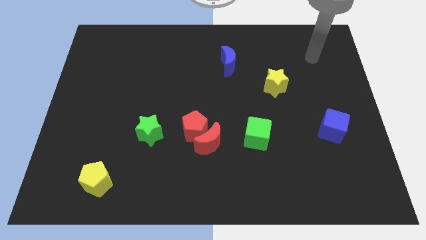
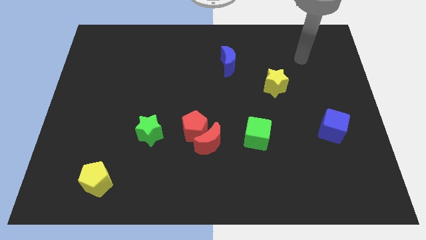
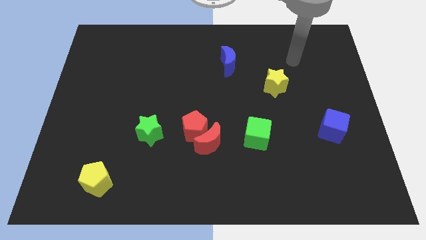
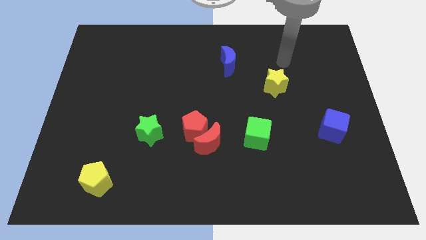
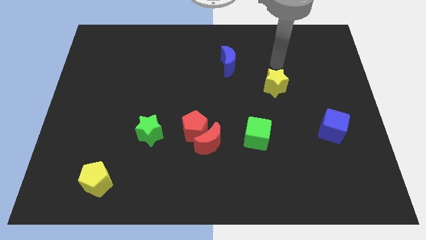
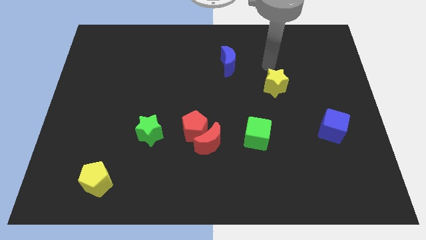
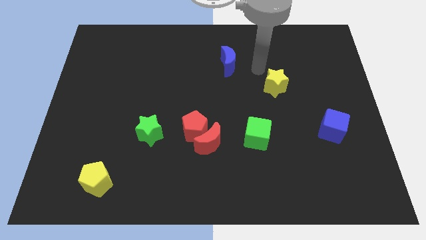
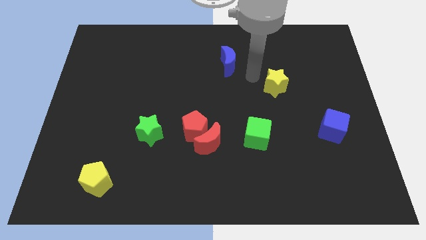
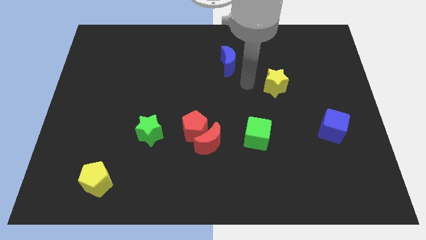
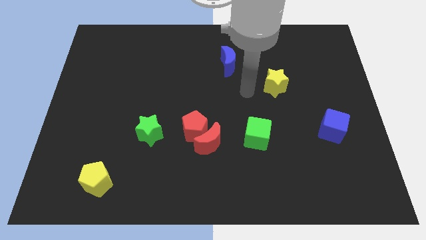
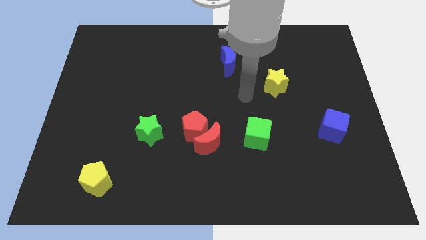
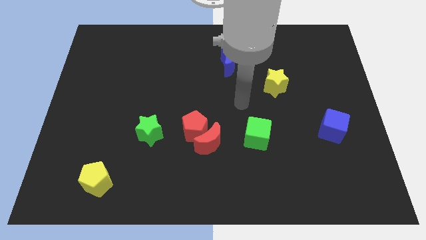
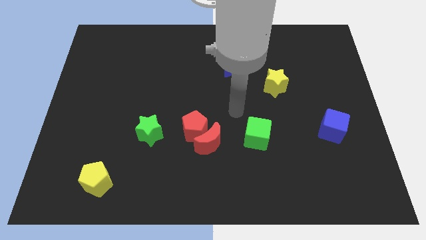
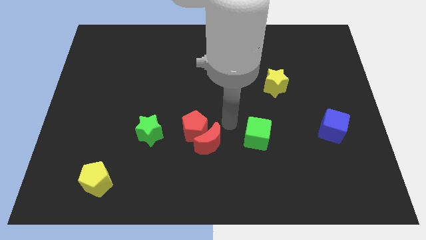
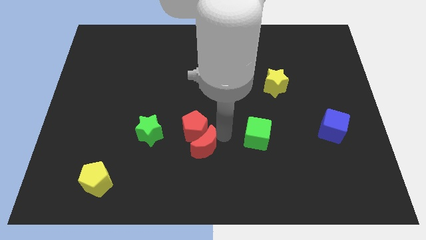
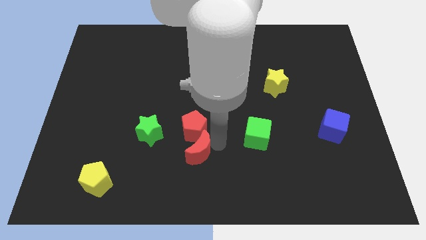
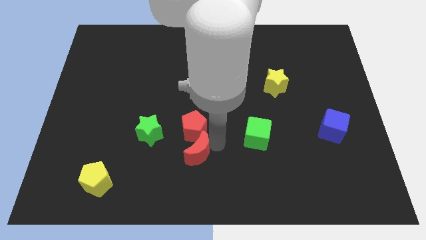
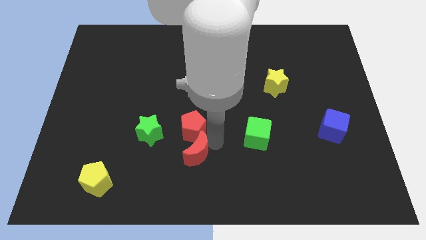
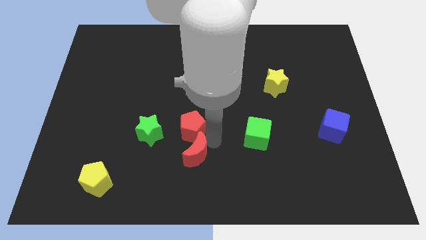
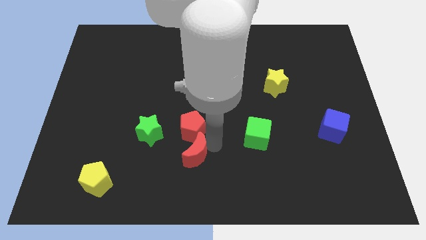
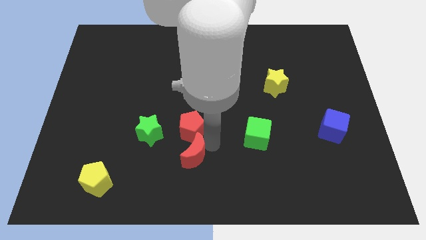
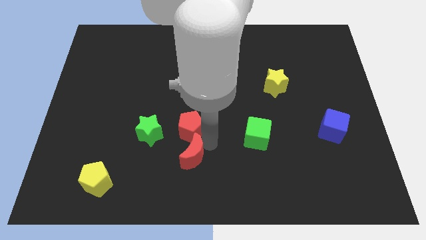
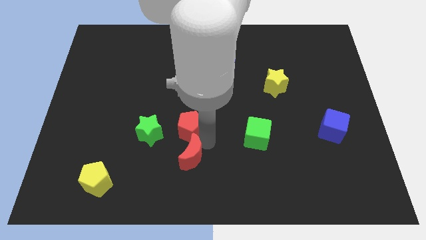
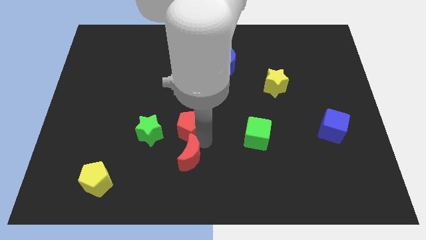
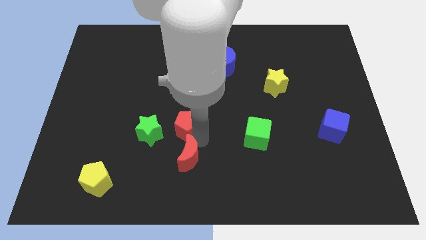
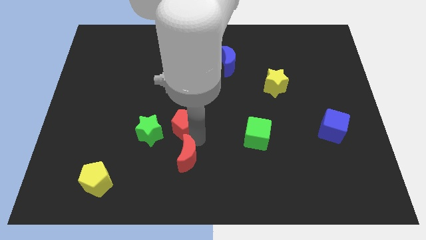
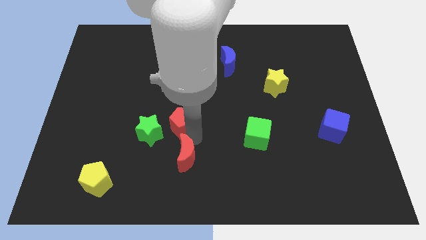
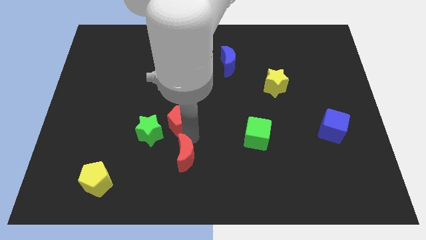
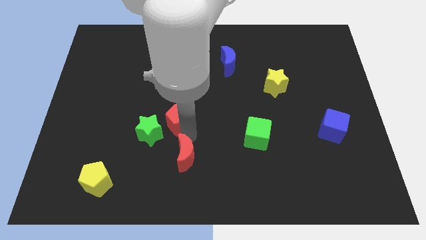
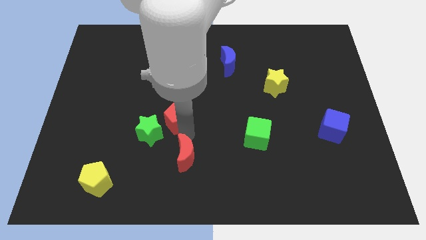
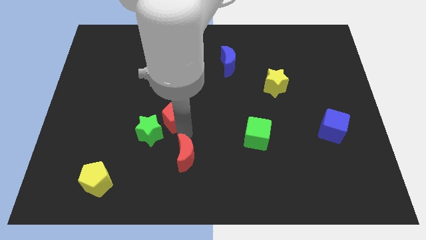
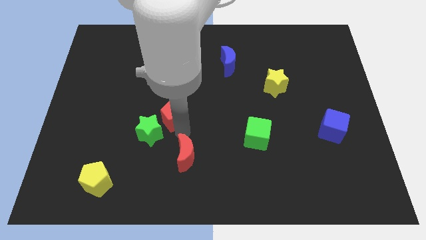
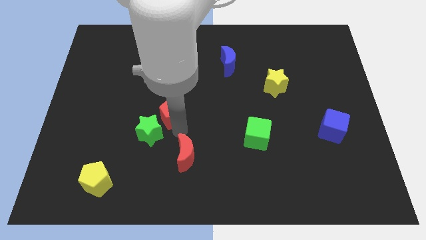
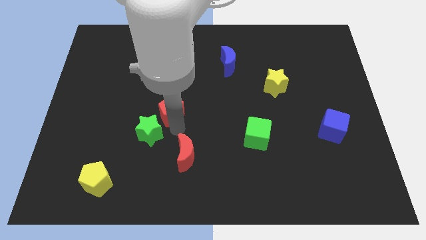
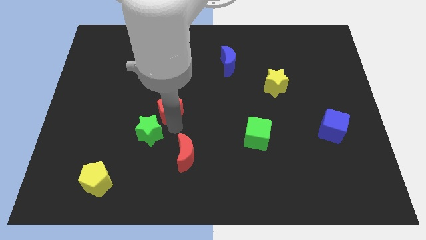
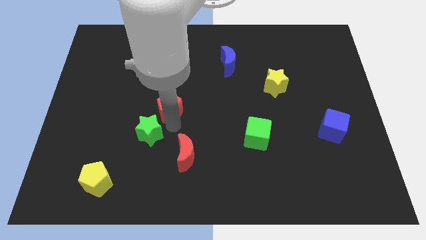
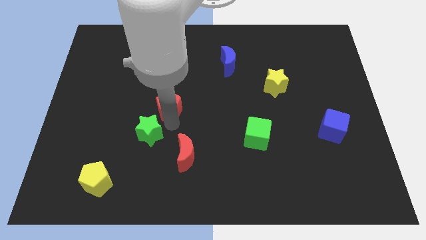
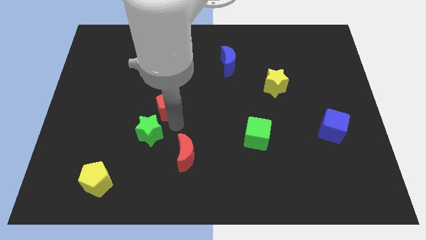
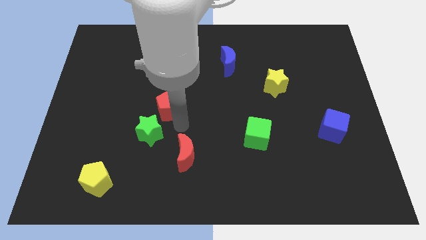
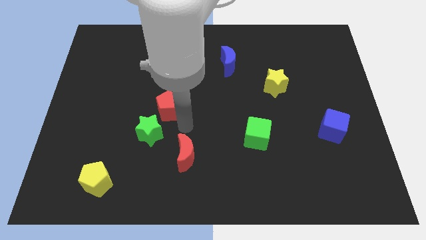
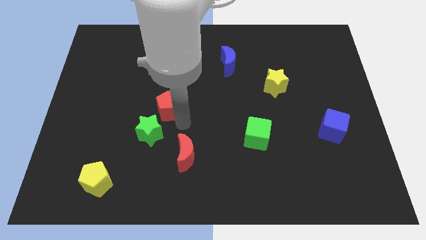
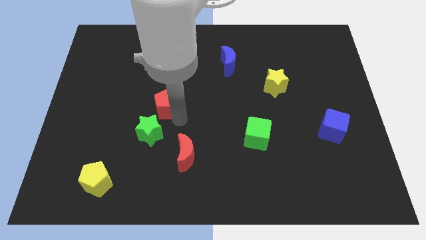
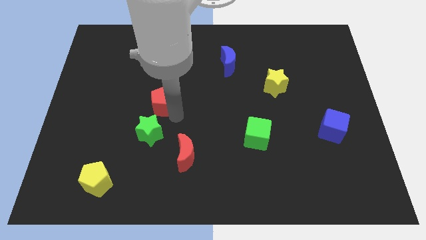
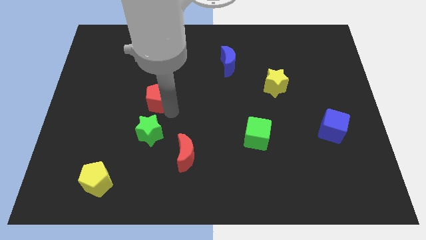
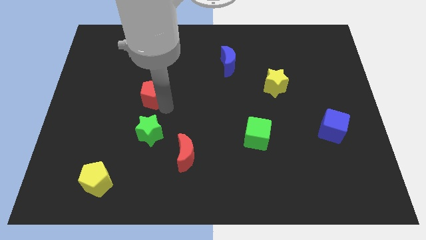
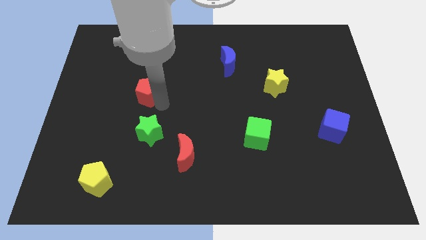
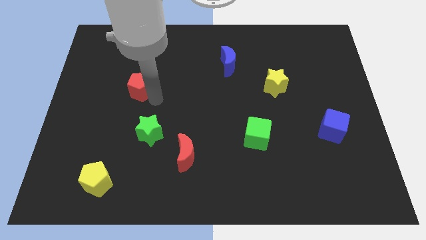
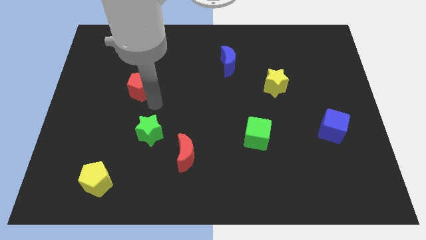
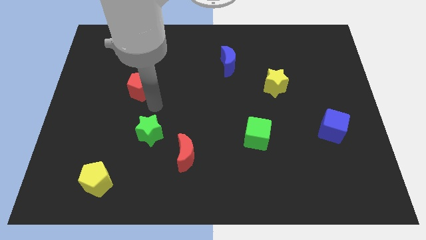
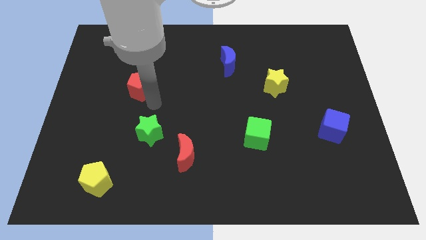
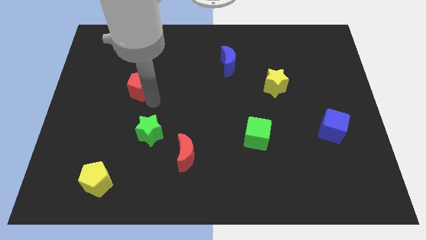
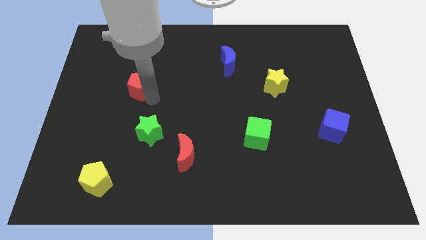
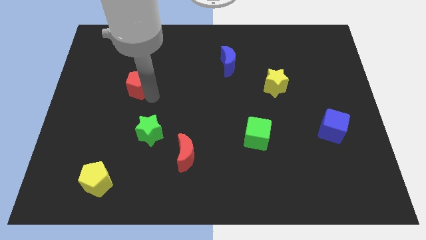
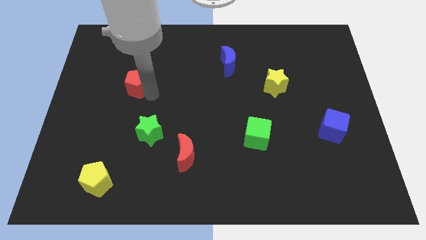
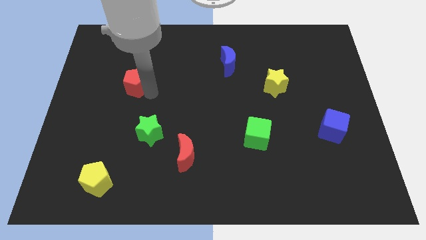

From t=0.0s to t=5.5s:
move the red pentagon up and left diagonally

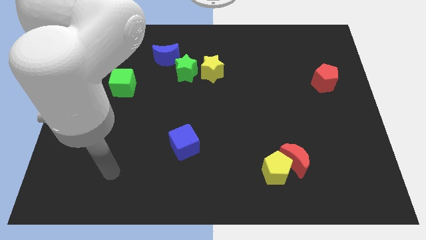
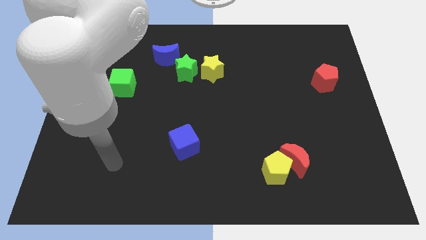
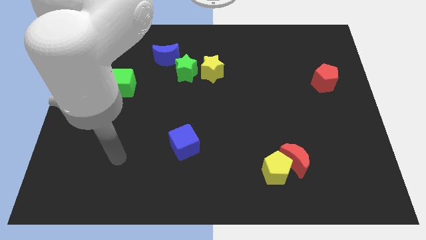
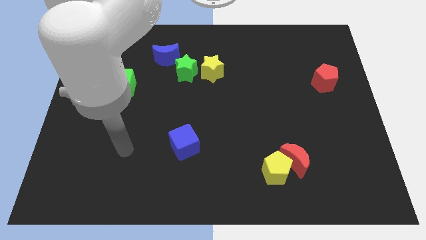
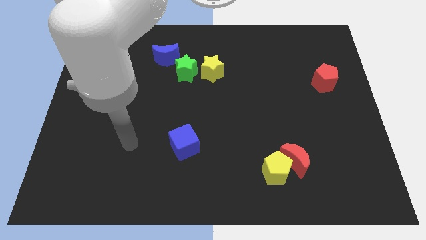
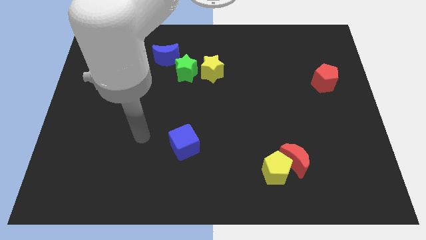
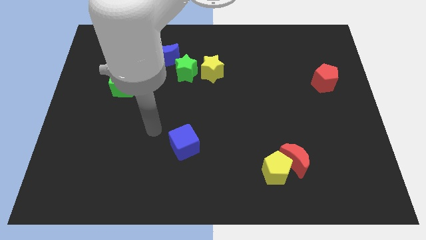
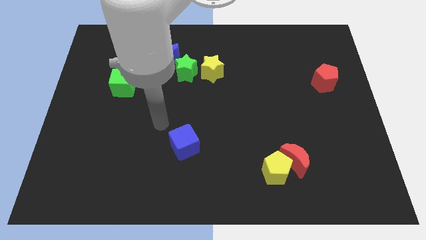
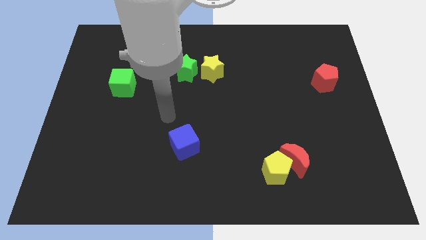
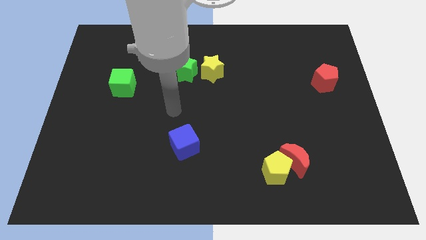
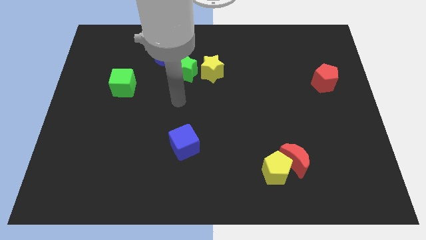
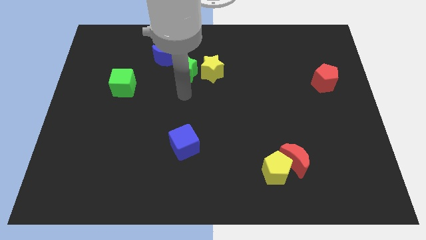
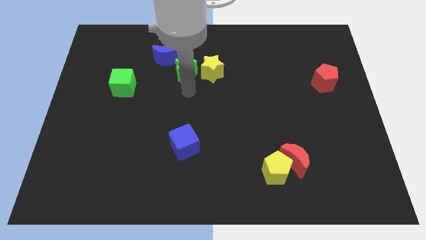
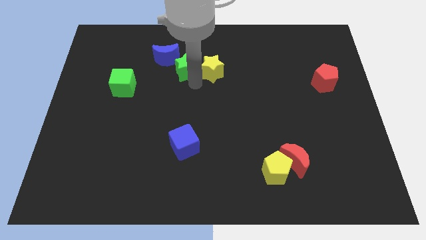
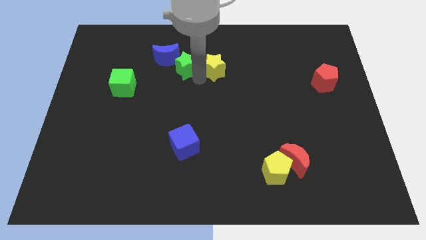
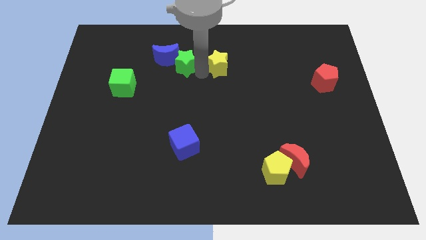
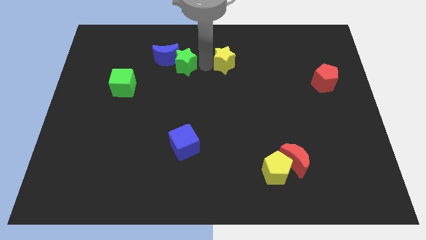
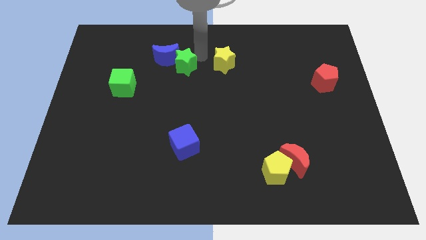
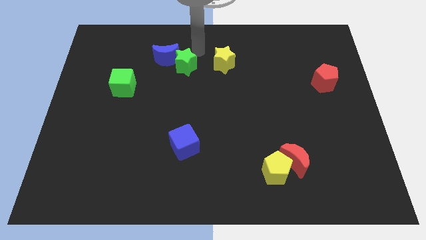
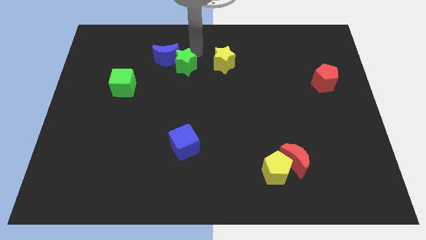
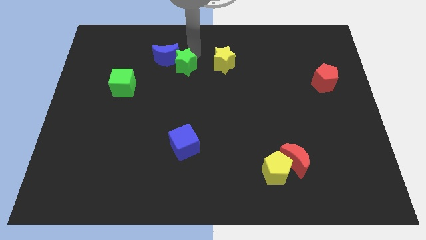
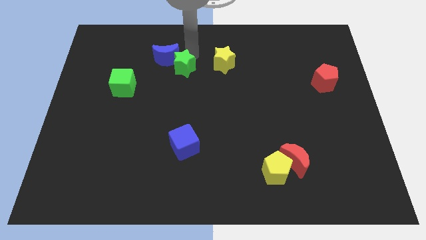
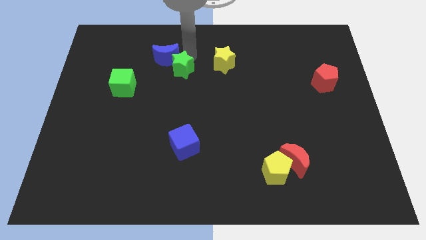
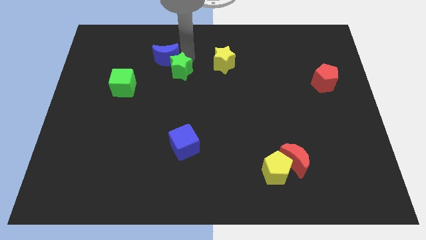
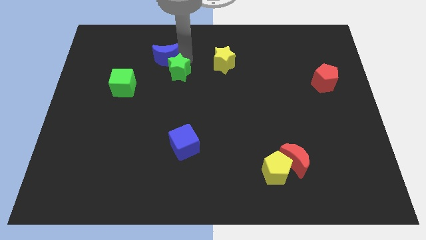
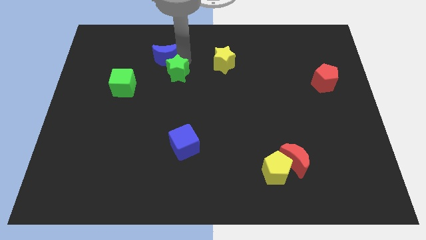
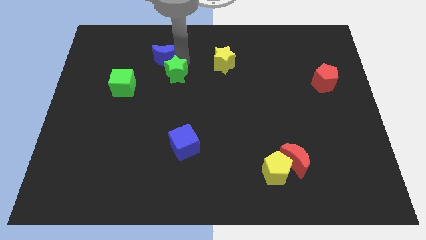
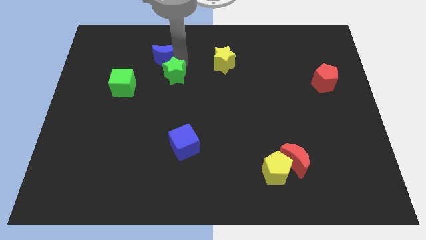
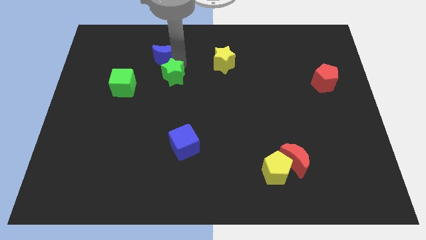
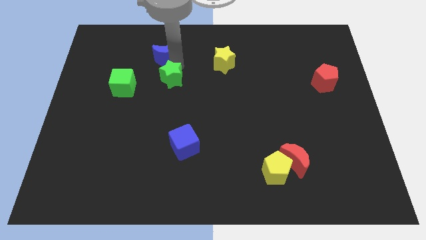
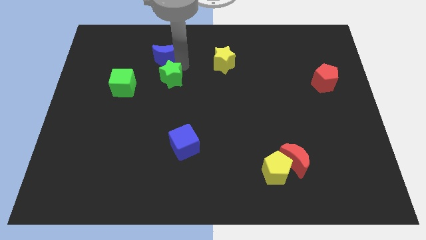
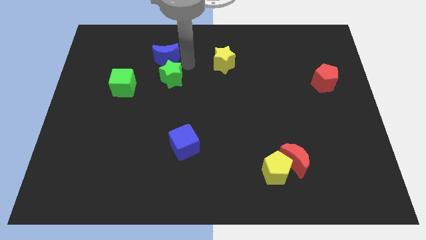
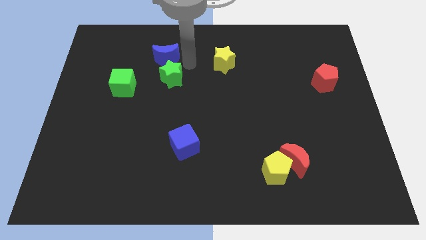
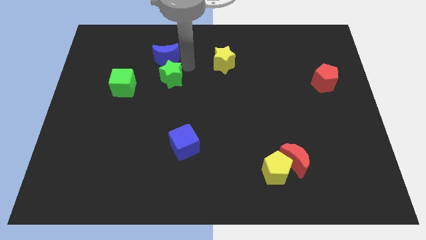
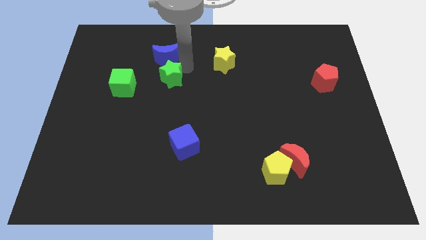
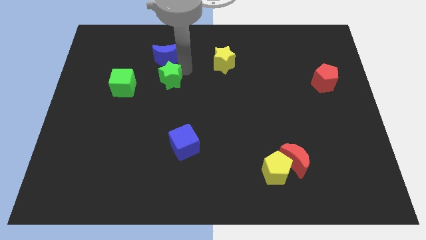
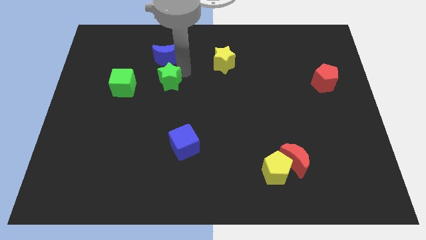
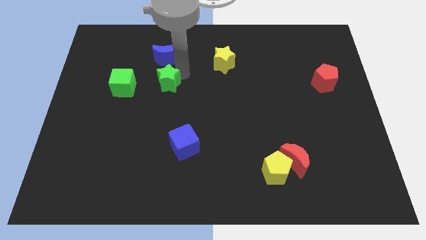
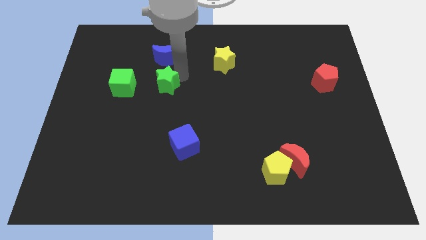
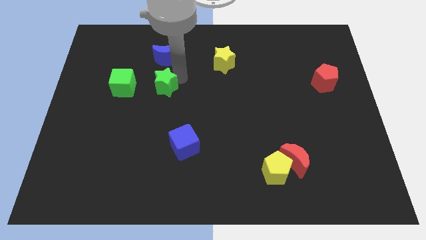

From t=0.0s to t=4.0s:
push the green star downwards and to the left diagonally a little
